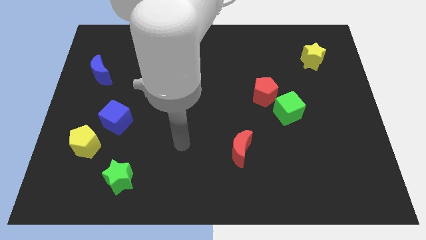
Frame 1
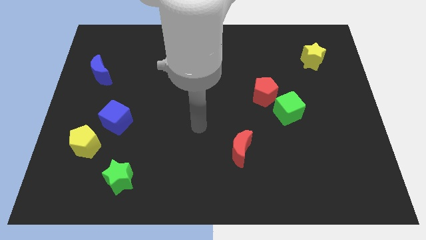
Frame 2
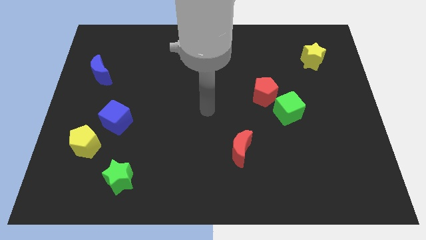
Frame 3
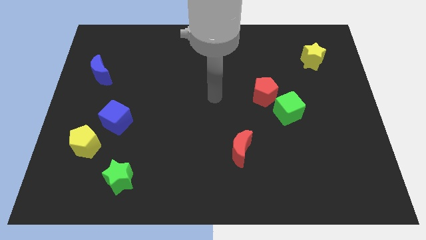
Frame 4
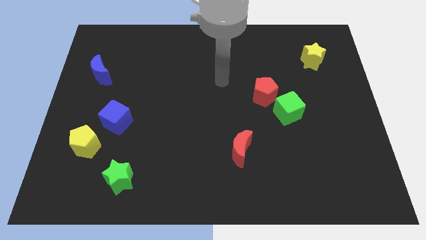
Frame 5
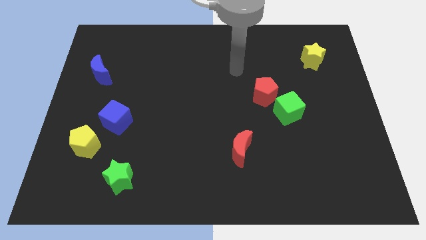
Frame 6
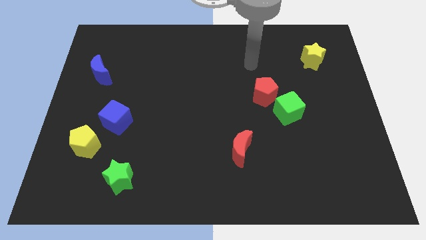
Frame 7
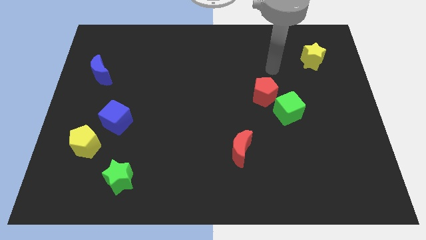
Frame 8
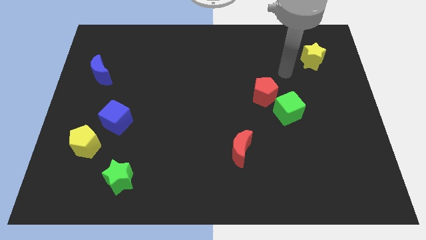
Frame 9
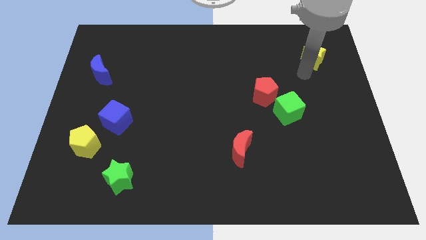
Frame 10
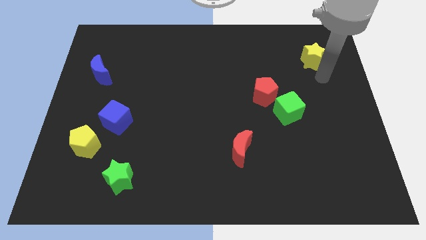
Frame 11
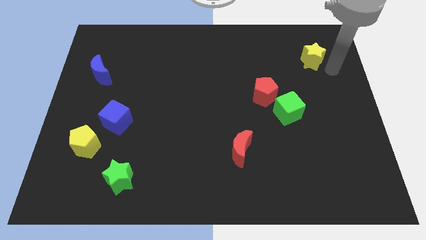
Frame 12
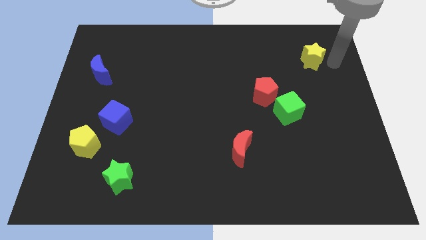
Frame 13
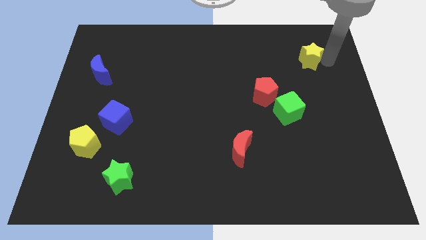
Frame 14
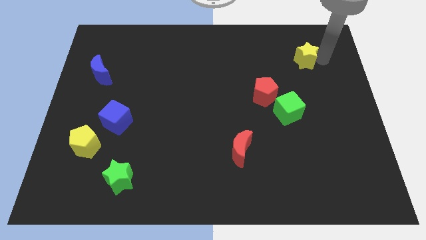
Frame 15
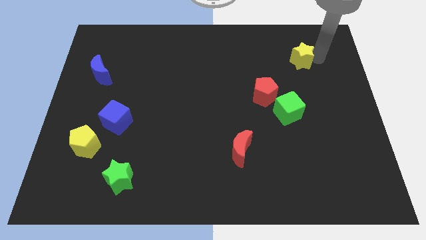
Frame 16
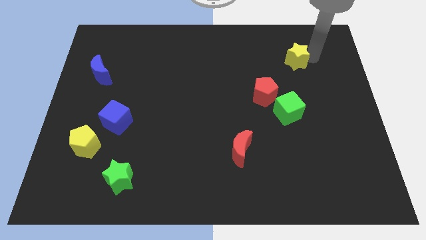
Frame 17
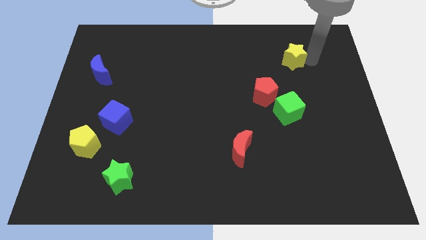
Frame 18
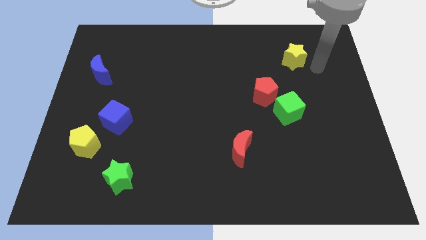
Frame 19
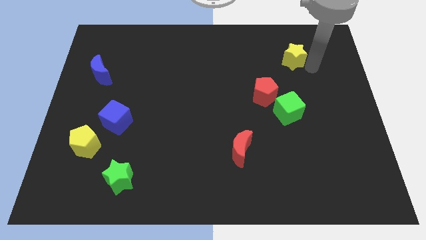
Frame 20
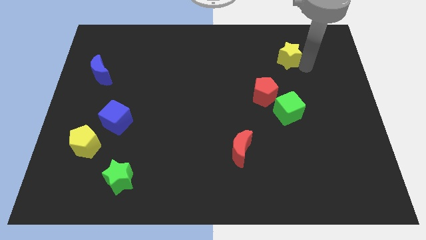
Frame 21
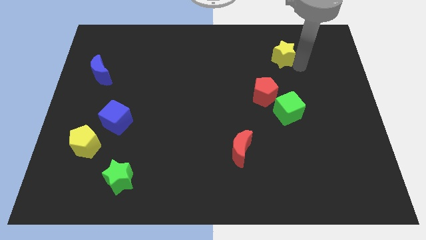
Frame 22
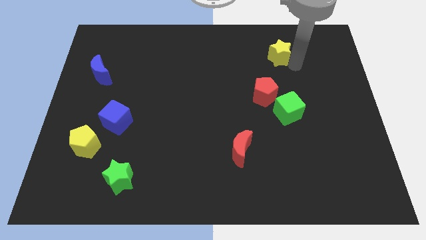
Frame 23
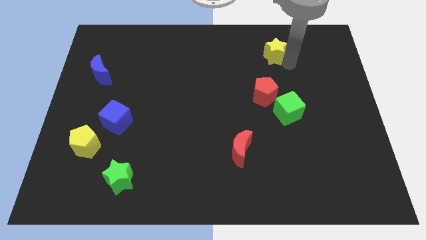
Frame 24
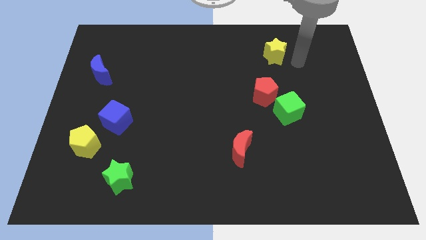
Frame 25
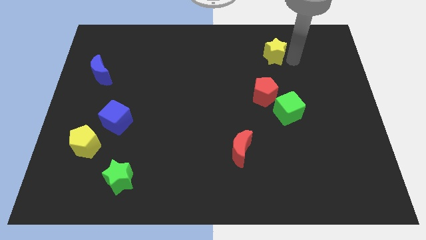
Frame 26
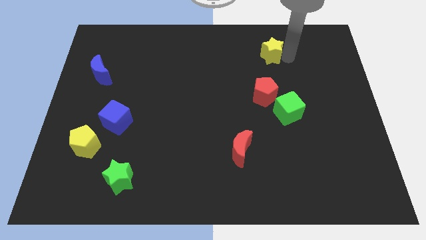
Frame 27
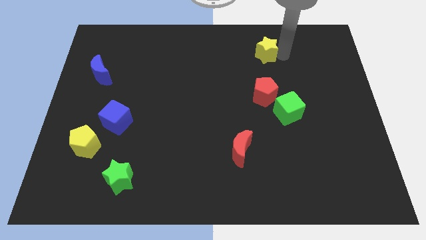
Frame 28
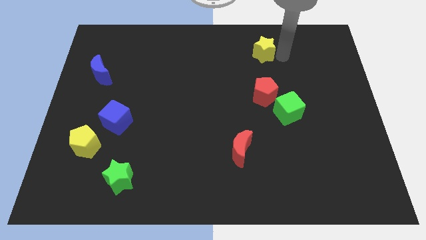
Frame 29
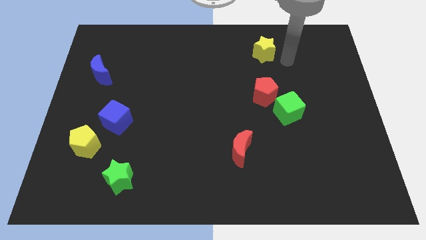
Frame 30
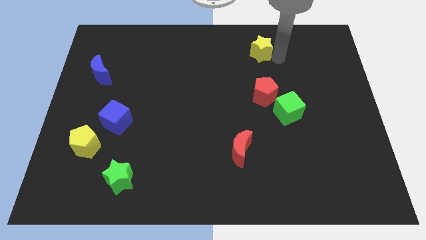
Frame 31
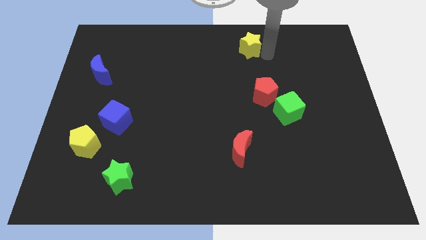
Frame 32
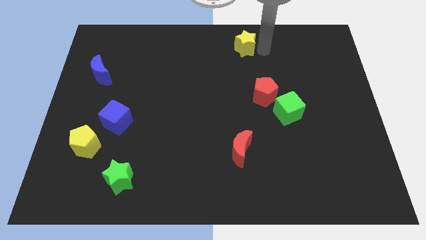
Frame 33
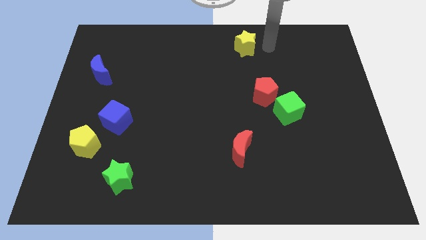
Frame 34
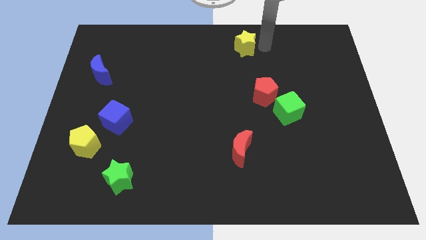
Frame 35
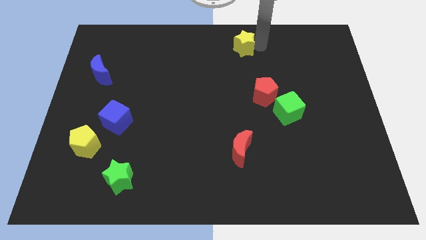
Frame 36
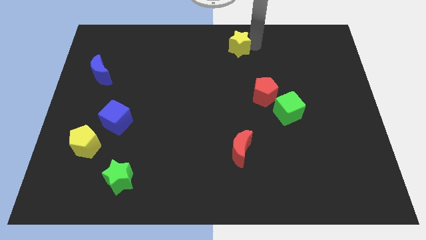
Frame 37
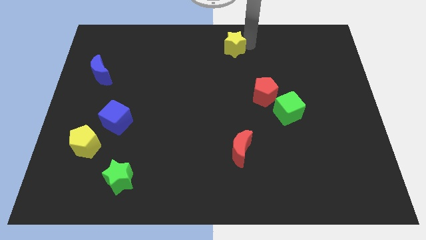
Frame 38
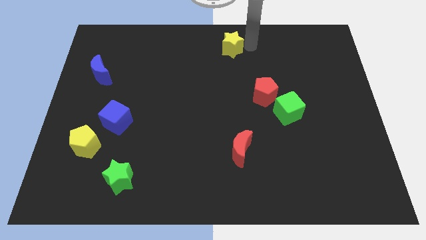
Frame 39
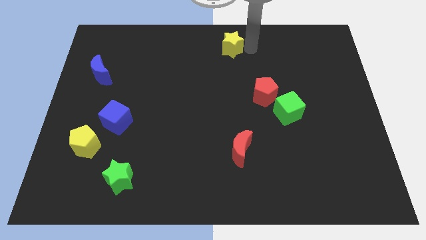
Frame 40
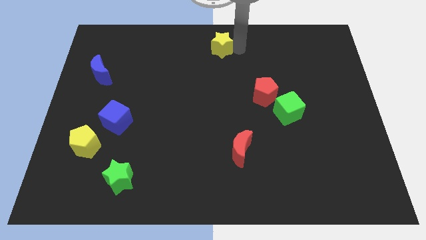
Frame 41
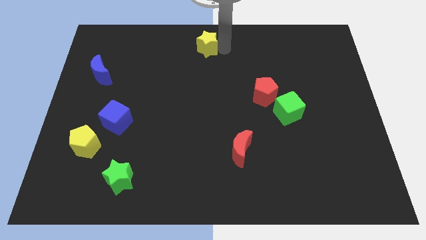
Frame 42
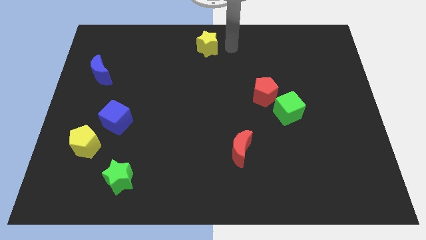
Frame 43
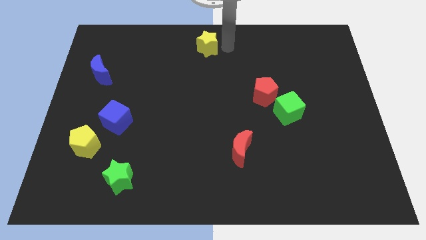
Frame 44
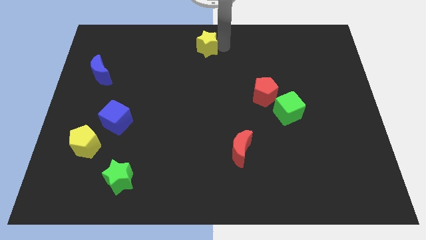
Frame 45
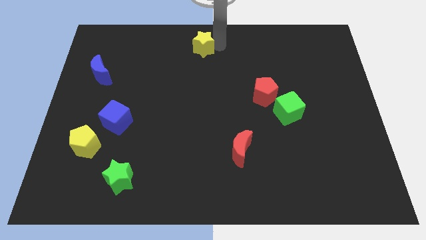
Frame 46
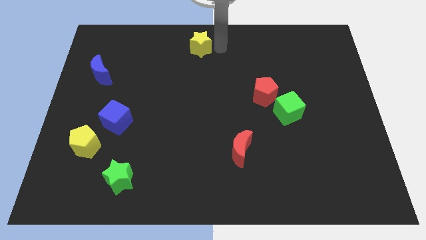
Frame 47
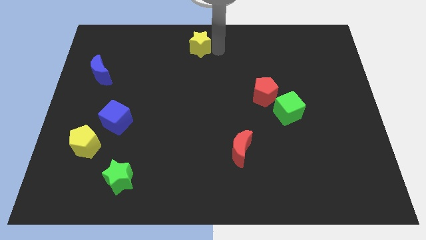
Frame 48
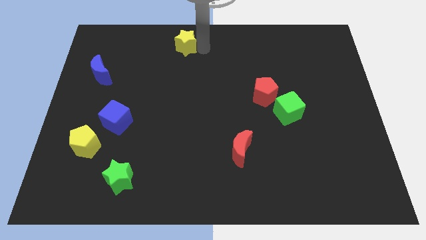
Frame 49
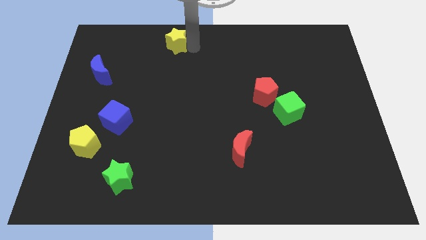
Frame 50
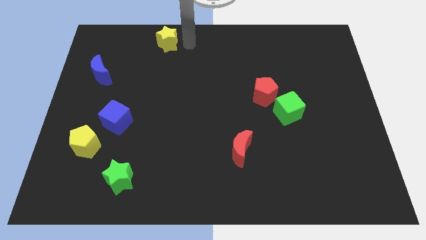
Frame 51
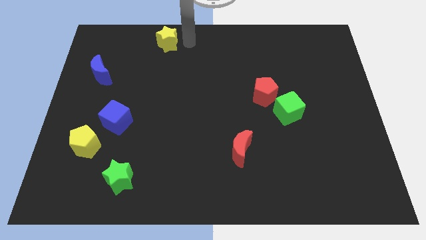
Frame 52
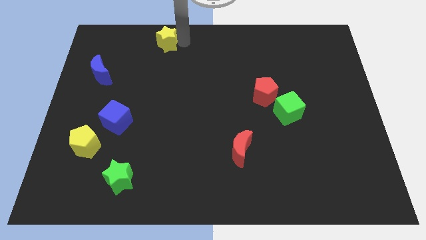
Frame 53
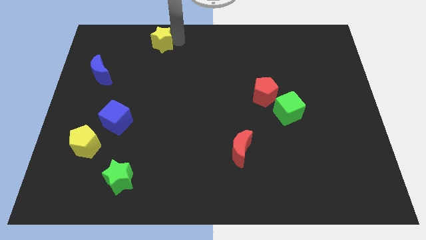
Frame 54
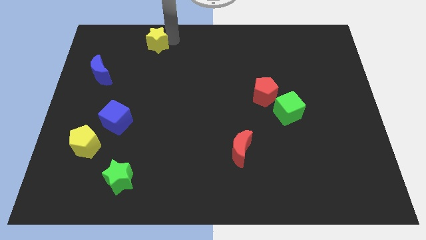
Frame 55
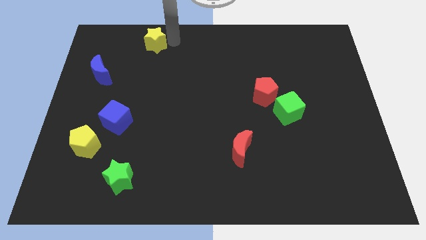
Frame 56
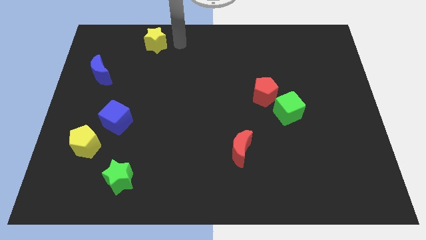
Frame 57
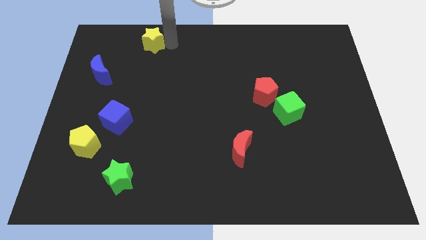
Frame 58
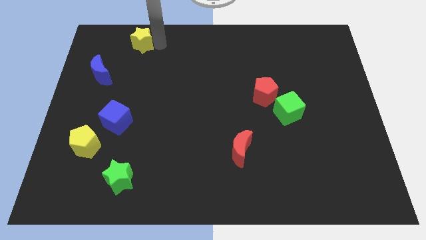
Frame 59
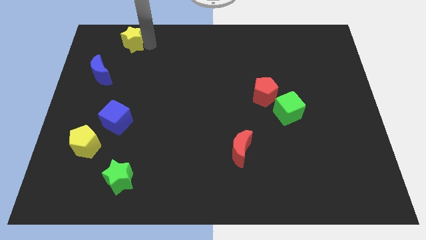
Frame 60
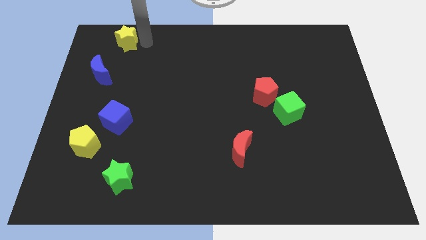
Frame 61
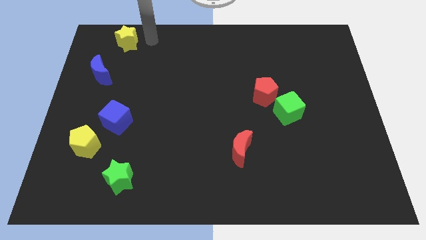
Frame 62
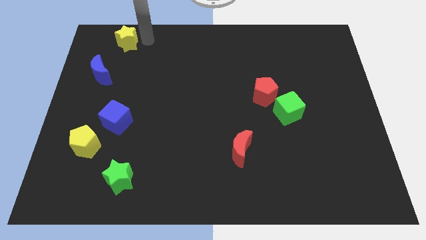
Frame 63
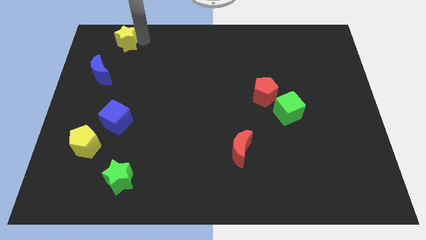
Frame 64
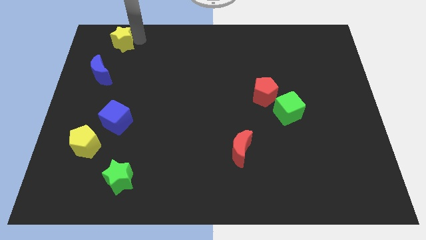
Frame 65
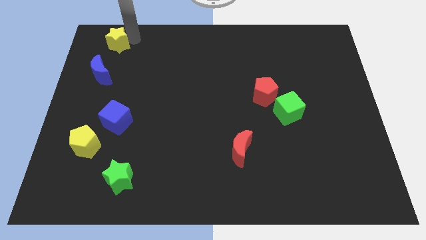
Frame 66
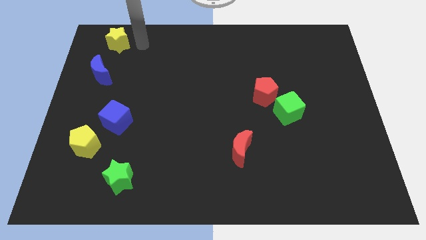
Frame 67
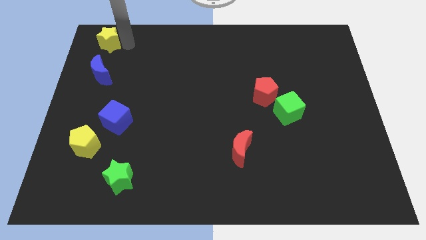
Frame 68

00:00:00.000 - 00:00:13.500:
slide the yellow star to the top left corner
